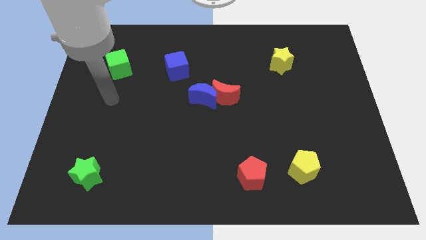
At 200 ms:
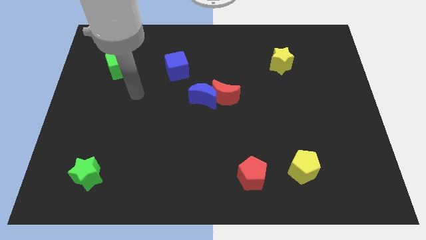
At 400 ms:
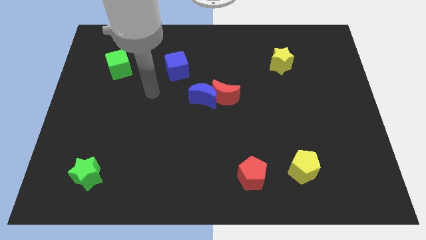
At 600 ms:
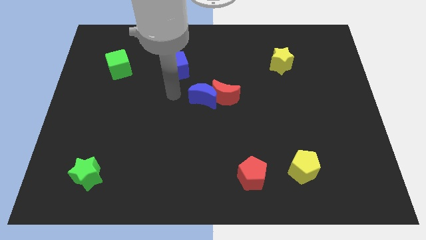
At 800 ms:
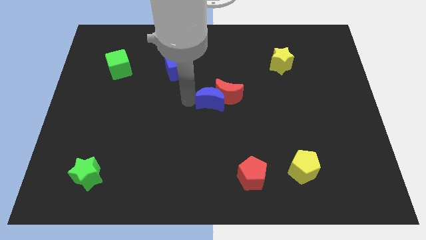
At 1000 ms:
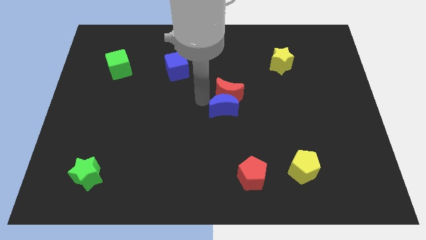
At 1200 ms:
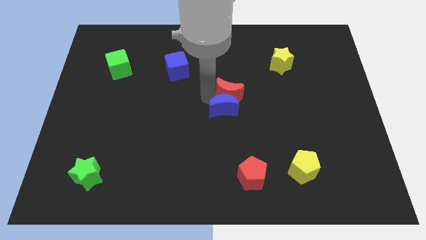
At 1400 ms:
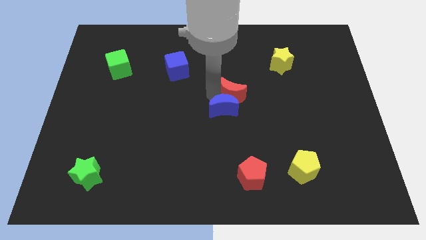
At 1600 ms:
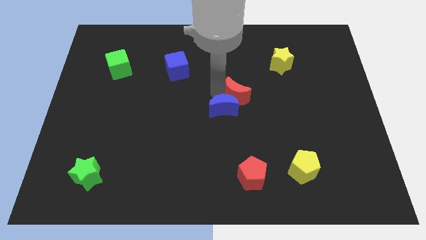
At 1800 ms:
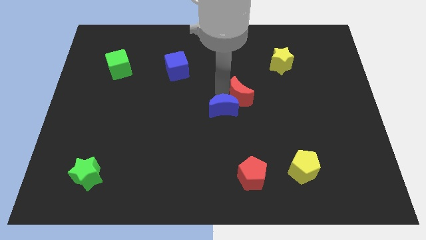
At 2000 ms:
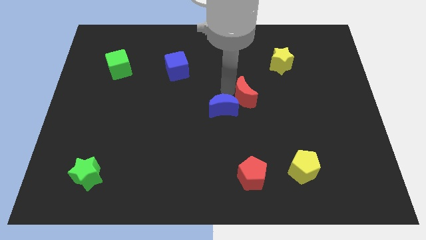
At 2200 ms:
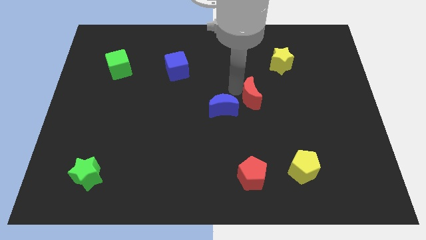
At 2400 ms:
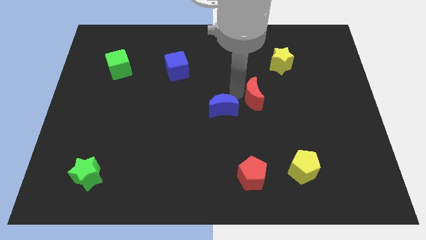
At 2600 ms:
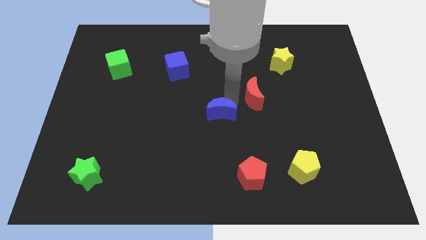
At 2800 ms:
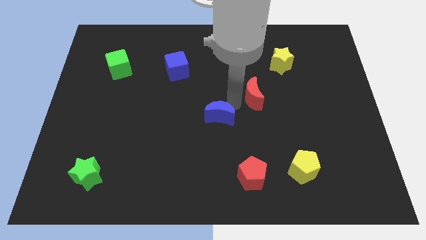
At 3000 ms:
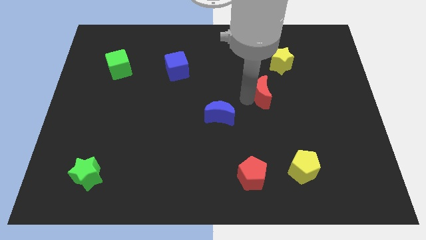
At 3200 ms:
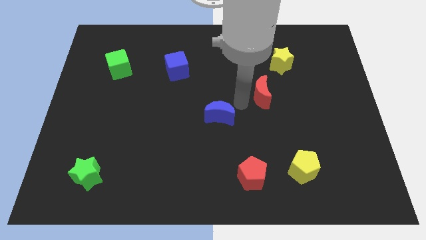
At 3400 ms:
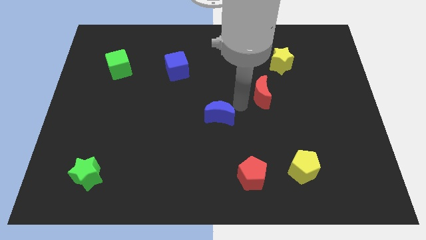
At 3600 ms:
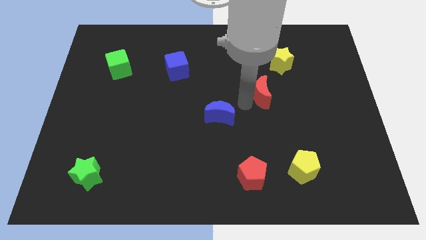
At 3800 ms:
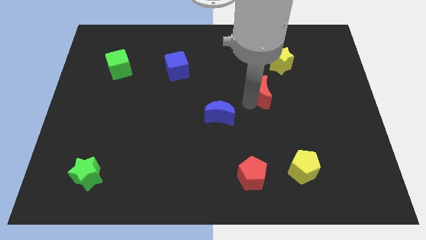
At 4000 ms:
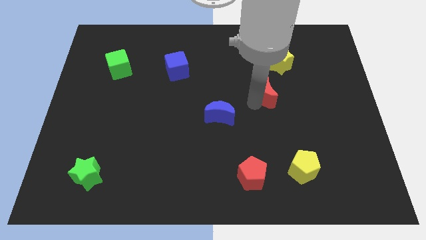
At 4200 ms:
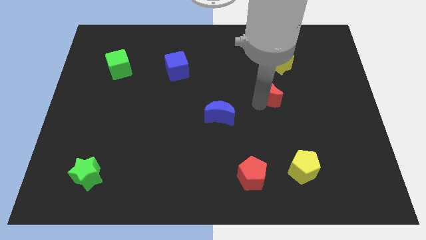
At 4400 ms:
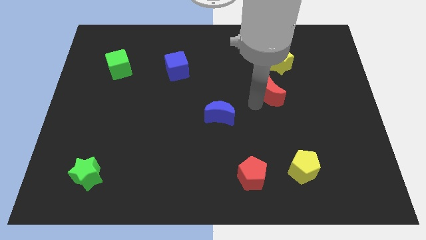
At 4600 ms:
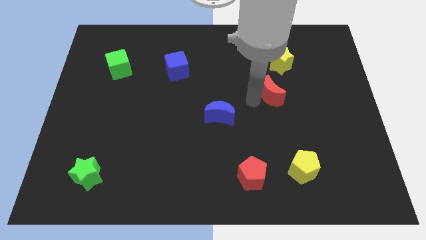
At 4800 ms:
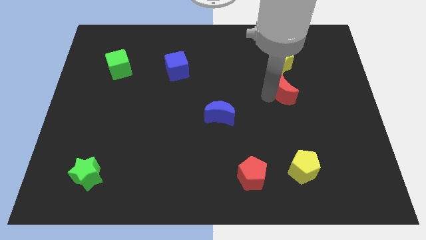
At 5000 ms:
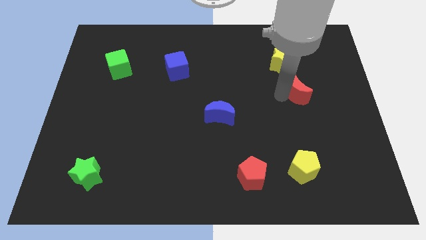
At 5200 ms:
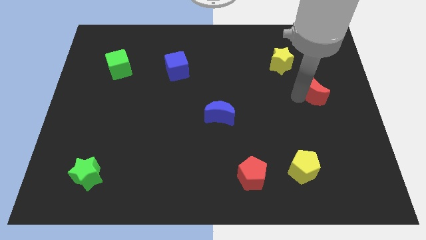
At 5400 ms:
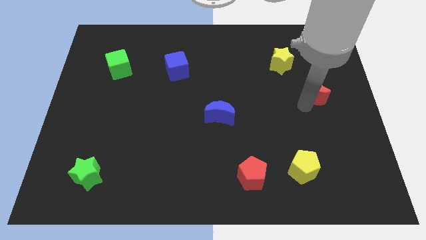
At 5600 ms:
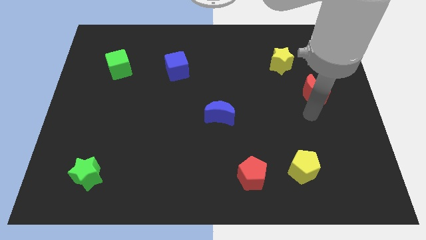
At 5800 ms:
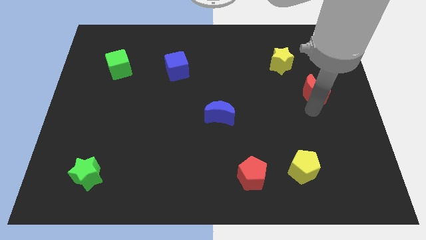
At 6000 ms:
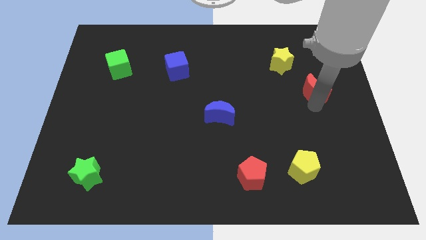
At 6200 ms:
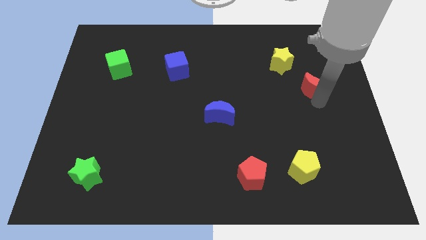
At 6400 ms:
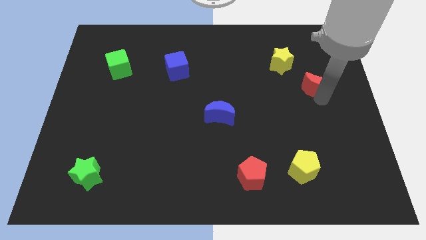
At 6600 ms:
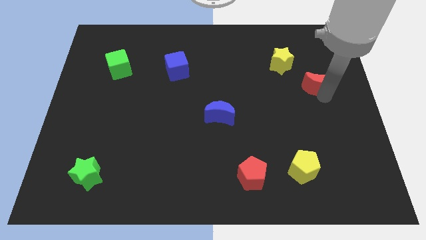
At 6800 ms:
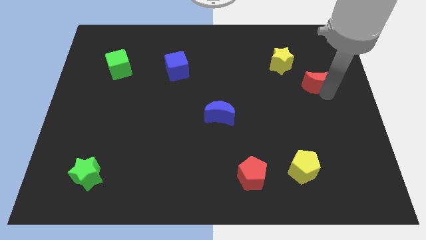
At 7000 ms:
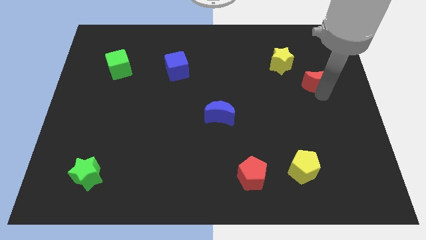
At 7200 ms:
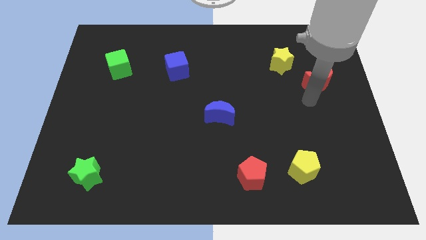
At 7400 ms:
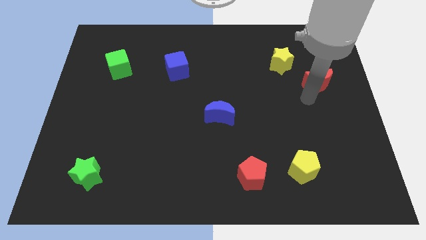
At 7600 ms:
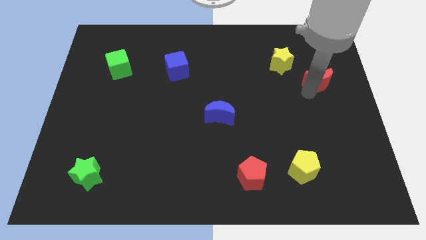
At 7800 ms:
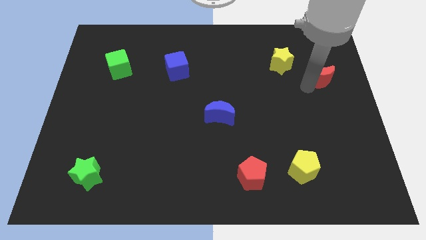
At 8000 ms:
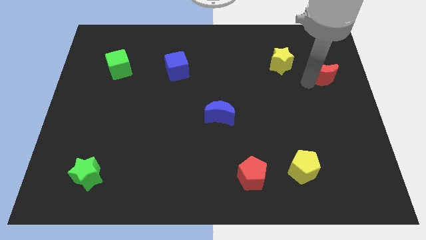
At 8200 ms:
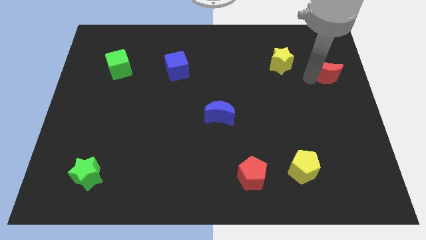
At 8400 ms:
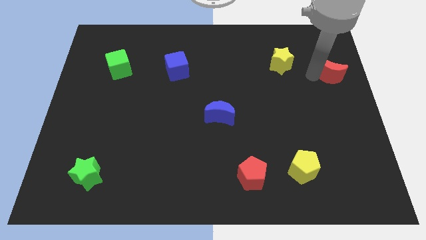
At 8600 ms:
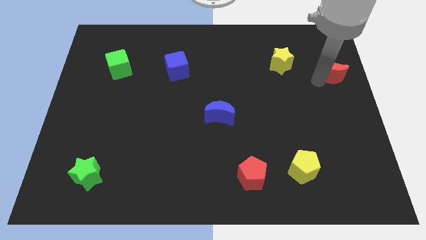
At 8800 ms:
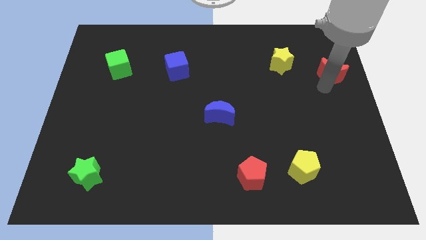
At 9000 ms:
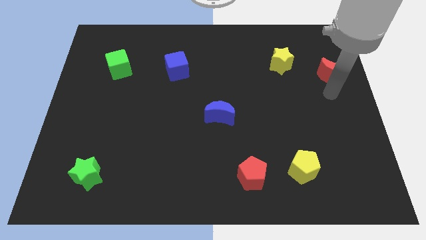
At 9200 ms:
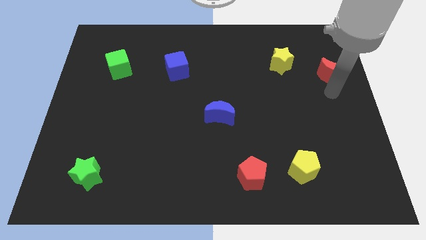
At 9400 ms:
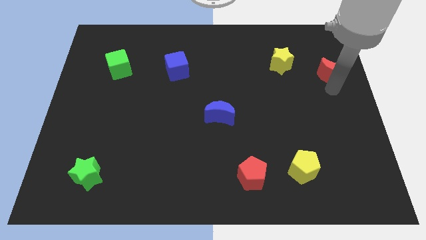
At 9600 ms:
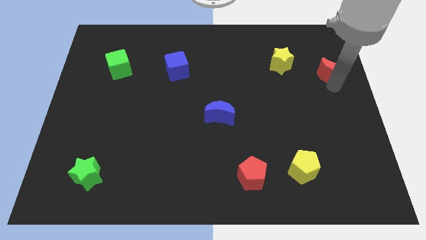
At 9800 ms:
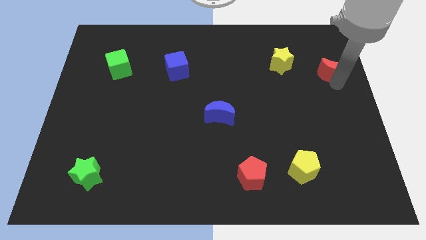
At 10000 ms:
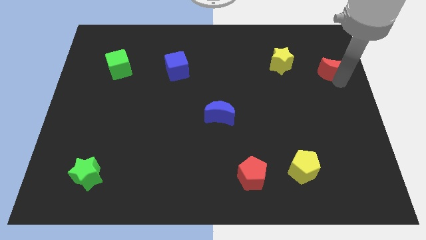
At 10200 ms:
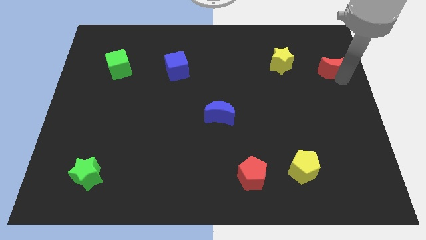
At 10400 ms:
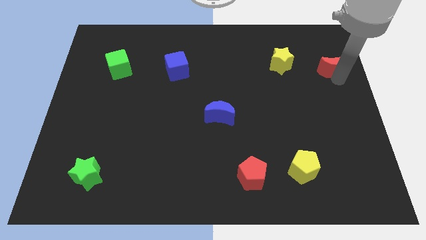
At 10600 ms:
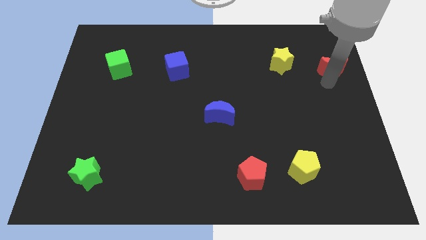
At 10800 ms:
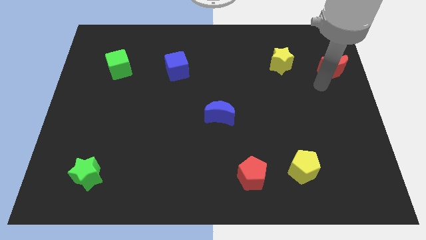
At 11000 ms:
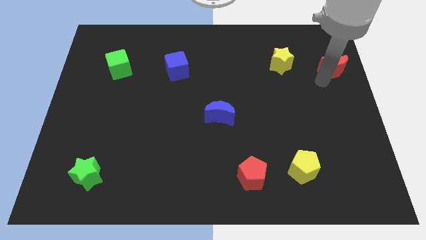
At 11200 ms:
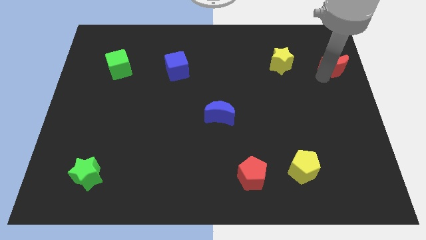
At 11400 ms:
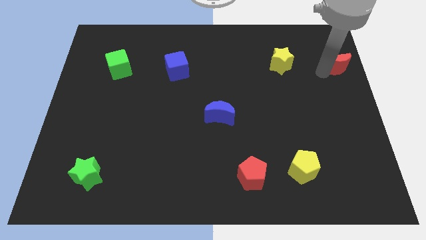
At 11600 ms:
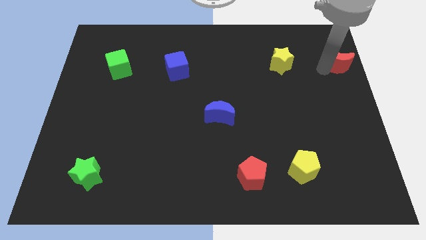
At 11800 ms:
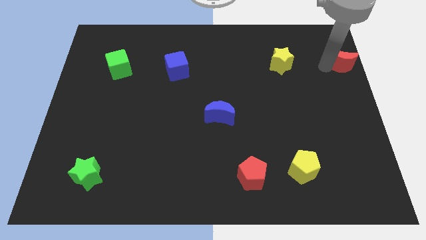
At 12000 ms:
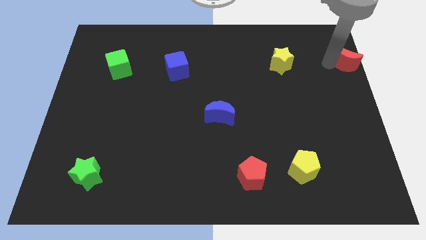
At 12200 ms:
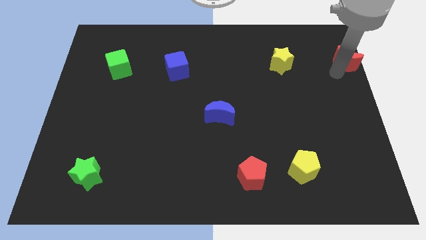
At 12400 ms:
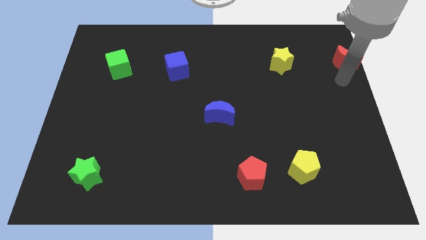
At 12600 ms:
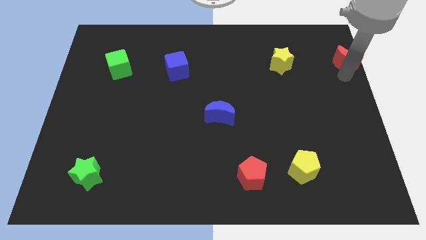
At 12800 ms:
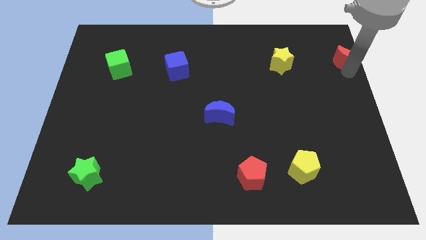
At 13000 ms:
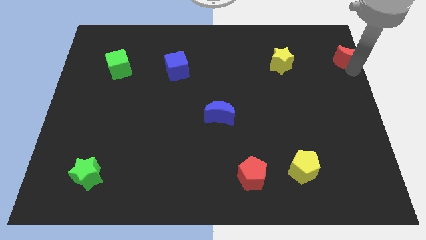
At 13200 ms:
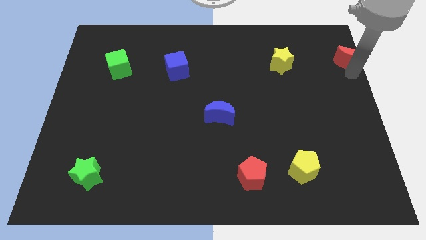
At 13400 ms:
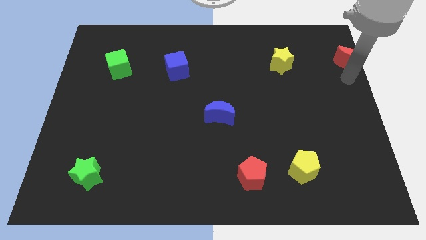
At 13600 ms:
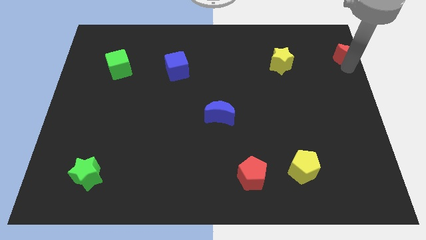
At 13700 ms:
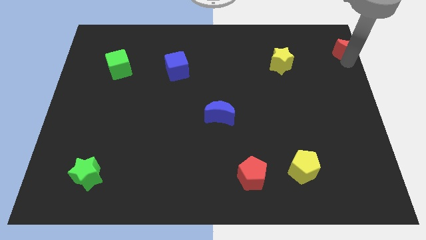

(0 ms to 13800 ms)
put the red moon to the top right corner
